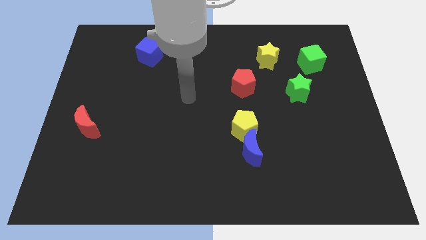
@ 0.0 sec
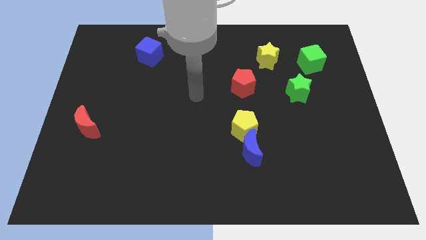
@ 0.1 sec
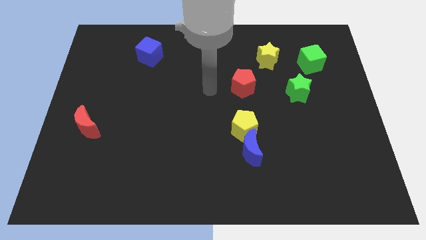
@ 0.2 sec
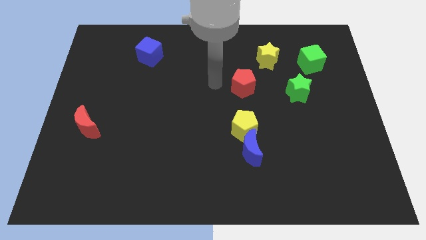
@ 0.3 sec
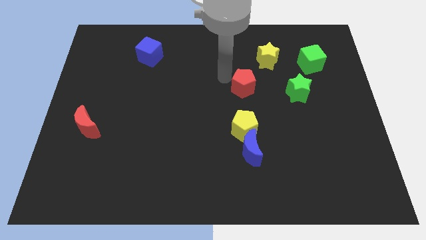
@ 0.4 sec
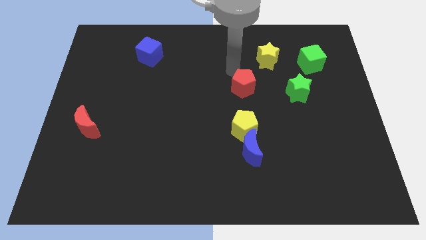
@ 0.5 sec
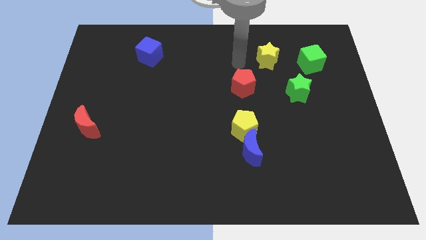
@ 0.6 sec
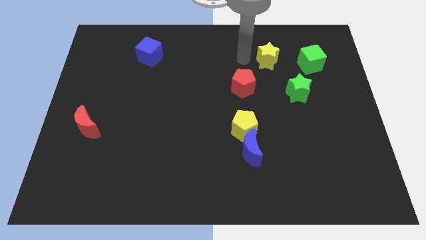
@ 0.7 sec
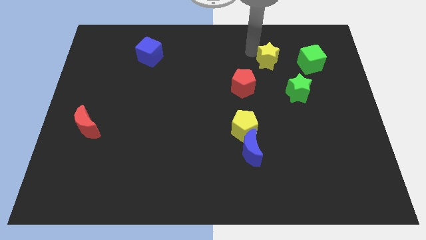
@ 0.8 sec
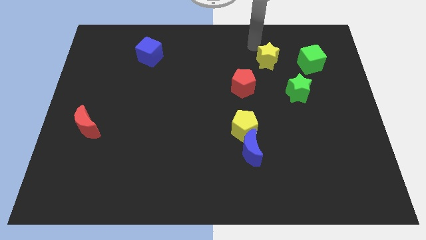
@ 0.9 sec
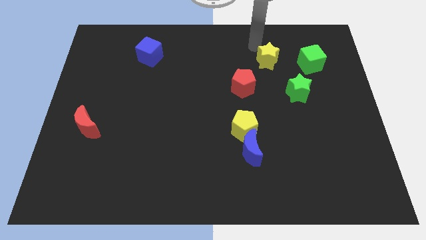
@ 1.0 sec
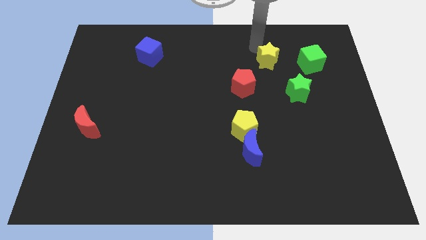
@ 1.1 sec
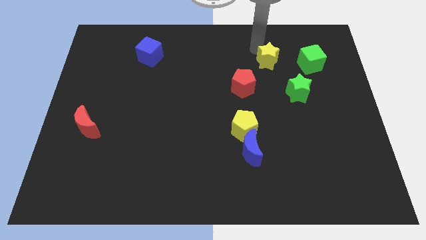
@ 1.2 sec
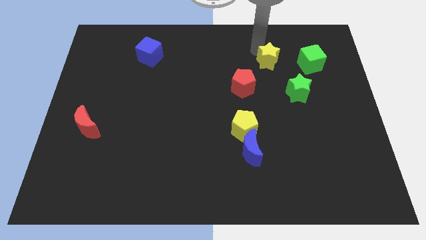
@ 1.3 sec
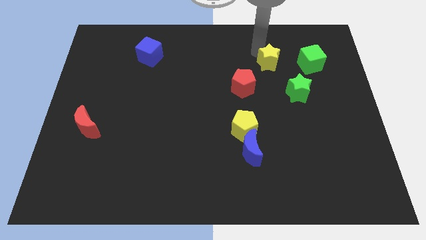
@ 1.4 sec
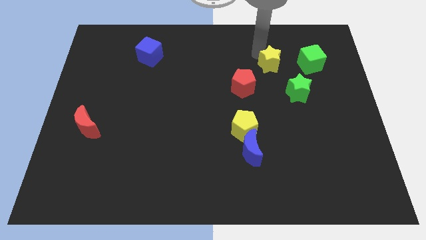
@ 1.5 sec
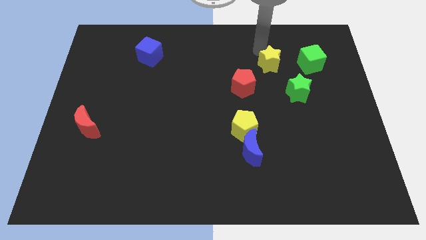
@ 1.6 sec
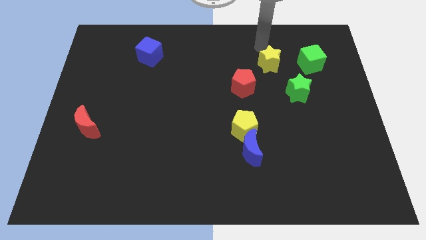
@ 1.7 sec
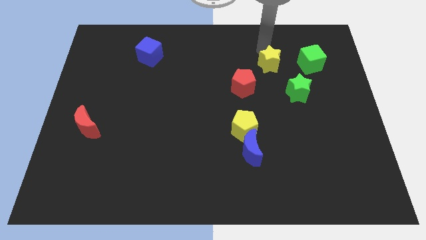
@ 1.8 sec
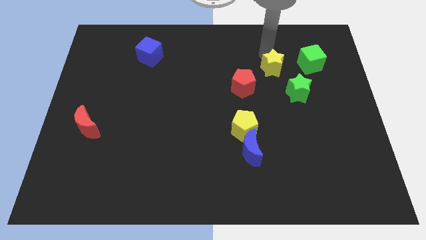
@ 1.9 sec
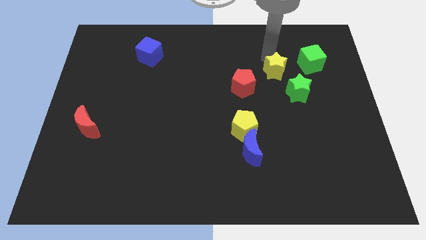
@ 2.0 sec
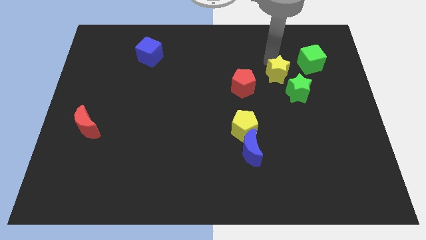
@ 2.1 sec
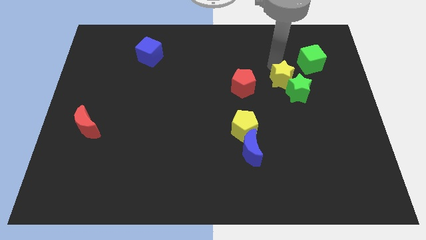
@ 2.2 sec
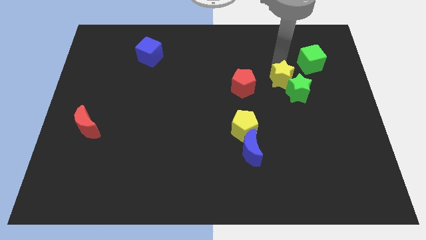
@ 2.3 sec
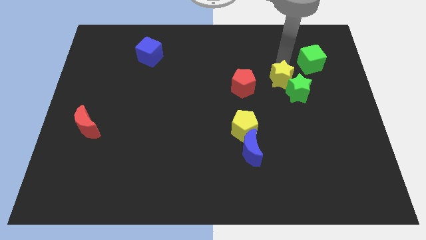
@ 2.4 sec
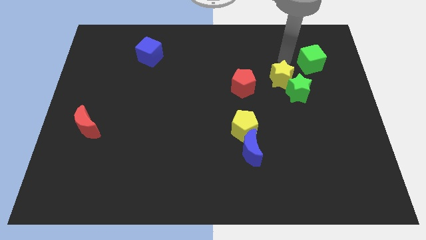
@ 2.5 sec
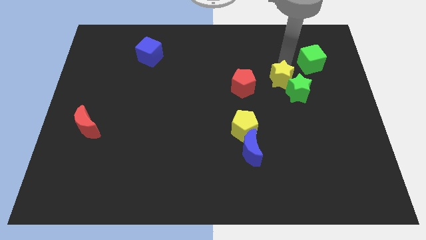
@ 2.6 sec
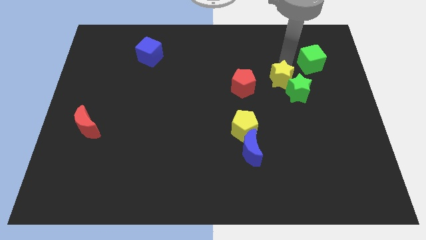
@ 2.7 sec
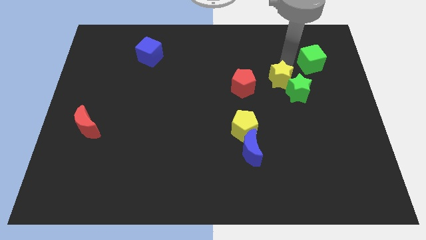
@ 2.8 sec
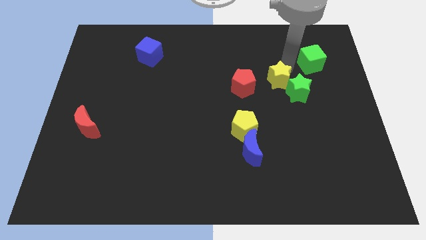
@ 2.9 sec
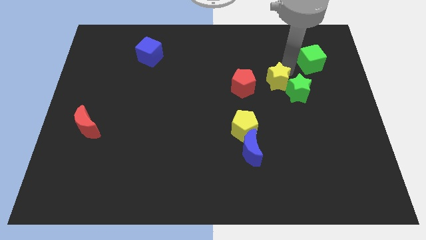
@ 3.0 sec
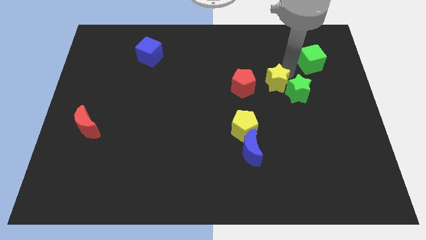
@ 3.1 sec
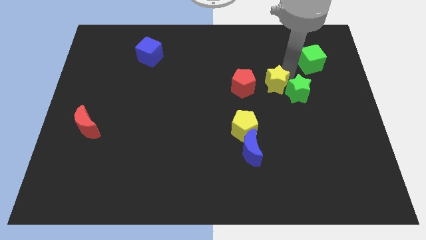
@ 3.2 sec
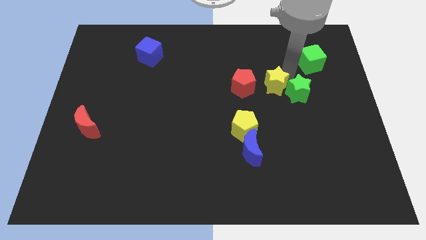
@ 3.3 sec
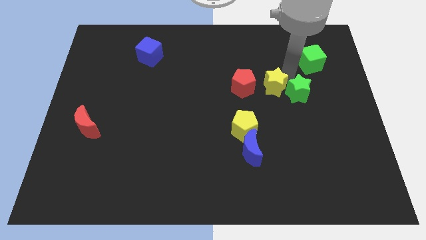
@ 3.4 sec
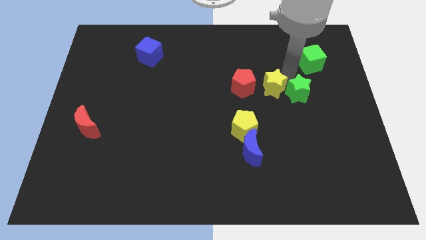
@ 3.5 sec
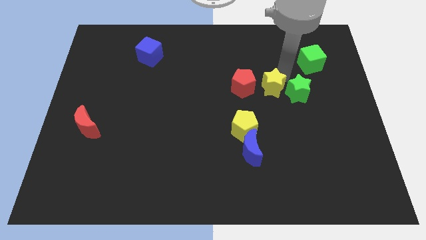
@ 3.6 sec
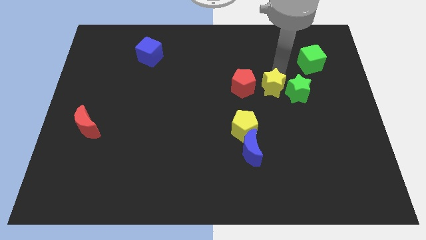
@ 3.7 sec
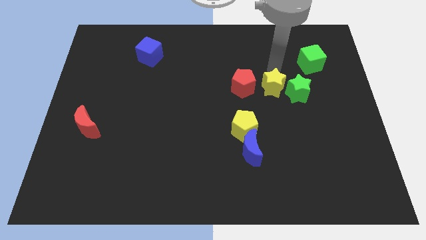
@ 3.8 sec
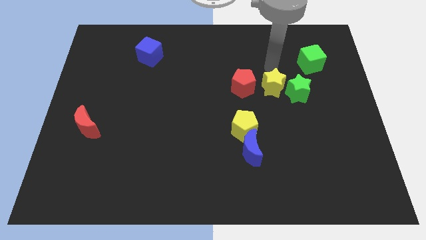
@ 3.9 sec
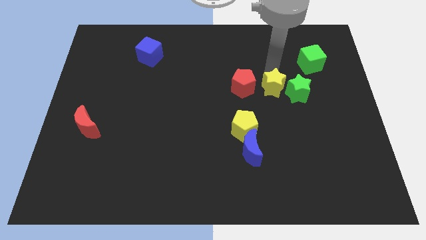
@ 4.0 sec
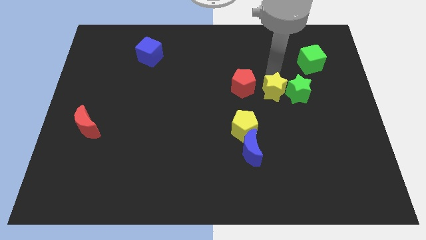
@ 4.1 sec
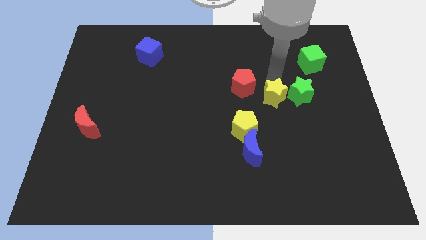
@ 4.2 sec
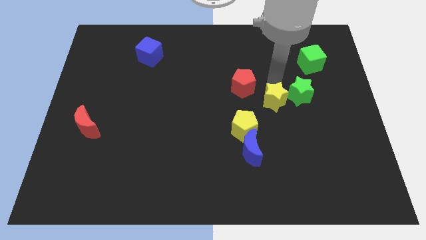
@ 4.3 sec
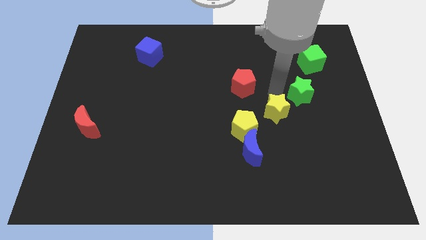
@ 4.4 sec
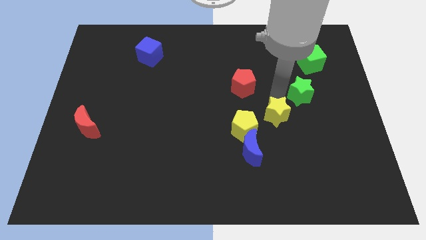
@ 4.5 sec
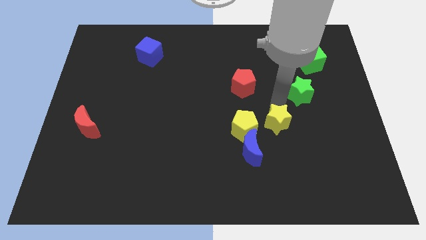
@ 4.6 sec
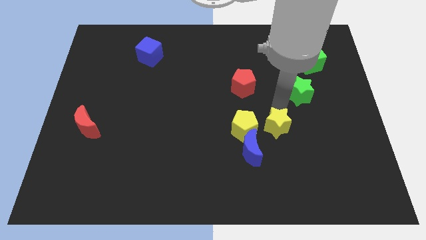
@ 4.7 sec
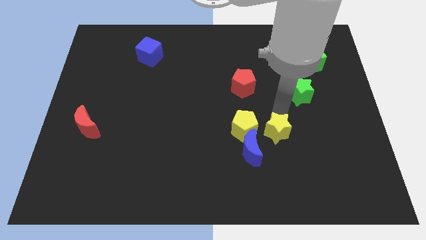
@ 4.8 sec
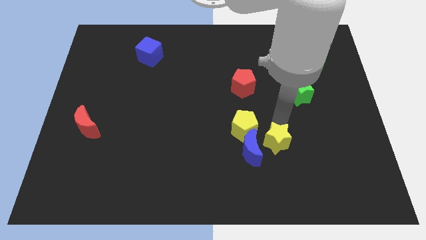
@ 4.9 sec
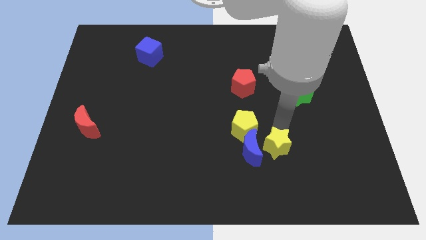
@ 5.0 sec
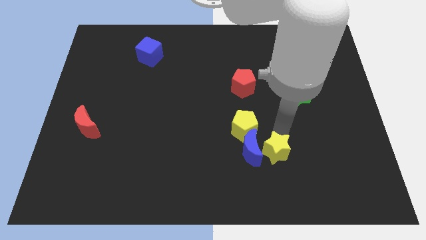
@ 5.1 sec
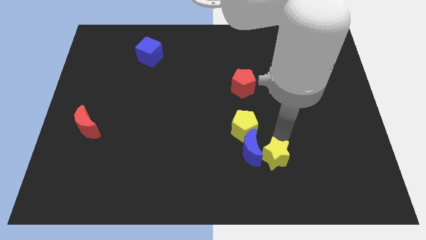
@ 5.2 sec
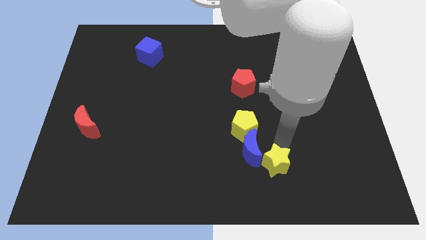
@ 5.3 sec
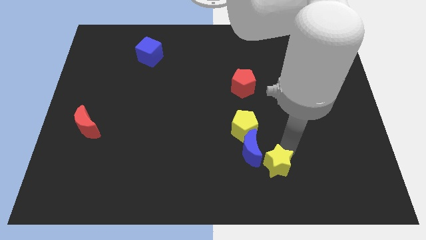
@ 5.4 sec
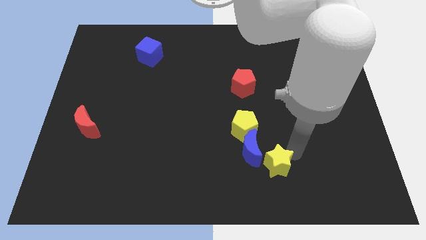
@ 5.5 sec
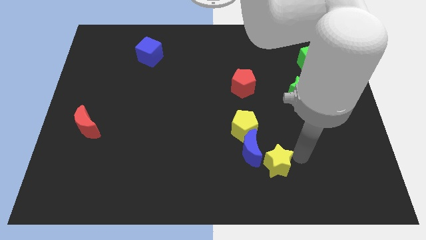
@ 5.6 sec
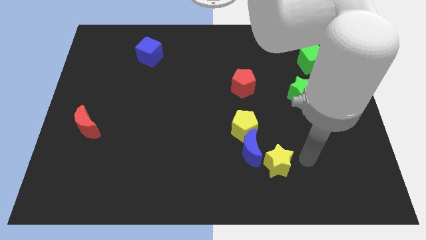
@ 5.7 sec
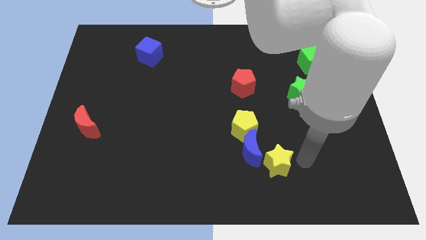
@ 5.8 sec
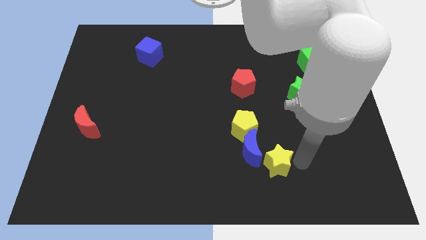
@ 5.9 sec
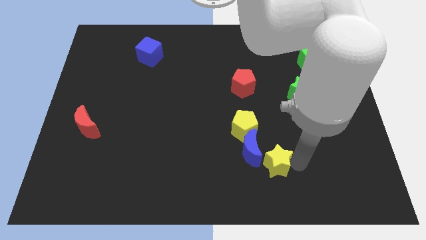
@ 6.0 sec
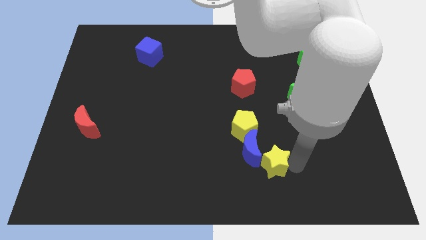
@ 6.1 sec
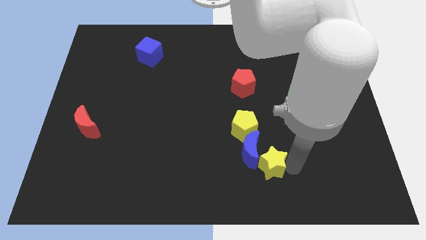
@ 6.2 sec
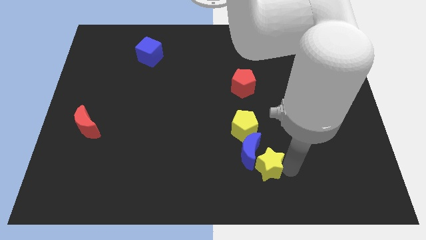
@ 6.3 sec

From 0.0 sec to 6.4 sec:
slide the yellow star to the bottom side of the yellow pentagon

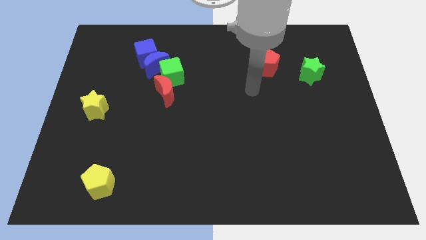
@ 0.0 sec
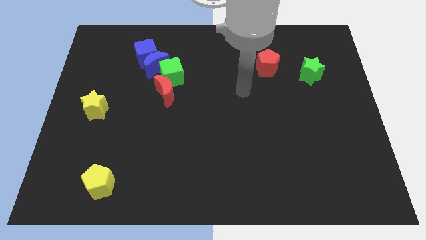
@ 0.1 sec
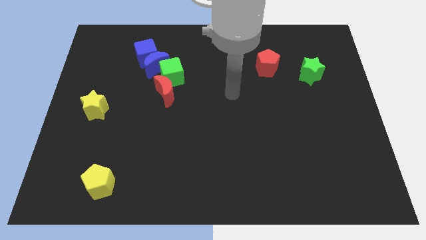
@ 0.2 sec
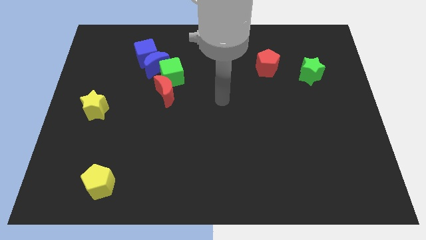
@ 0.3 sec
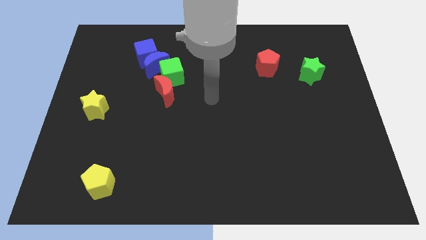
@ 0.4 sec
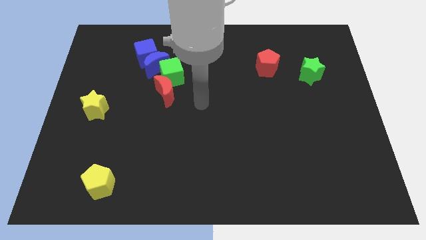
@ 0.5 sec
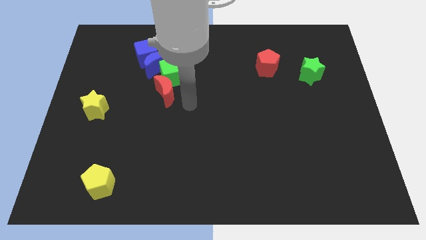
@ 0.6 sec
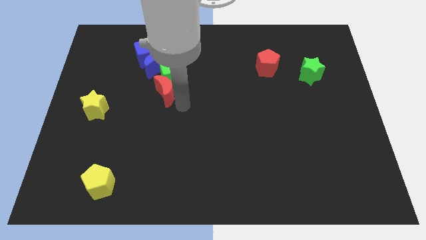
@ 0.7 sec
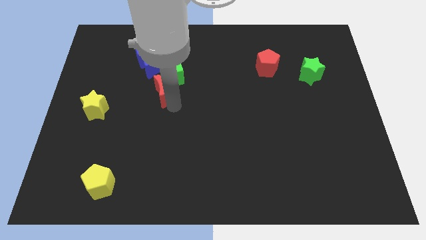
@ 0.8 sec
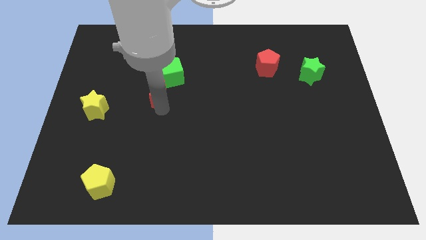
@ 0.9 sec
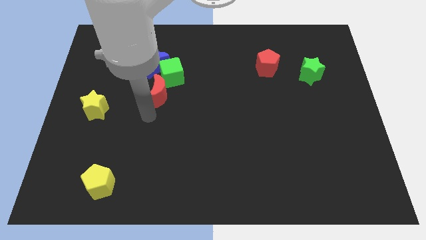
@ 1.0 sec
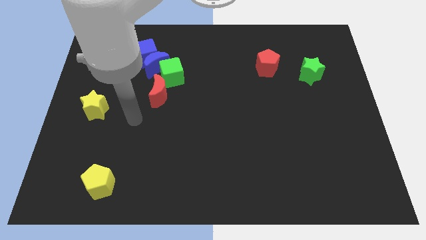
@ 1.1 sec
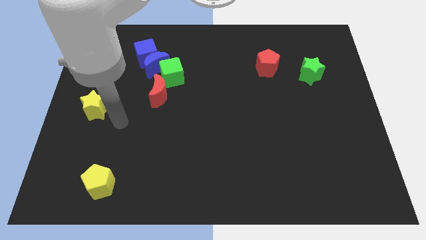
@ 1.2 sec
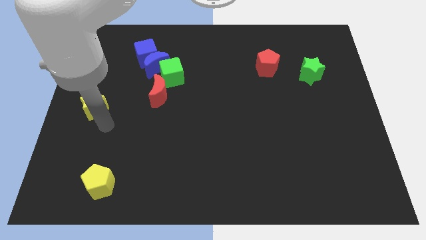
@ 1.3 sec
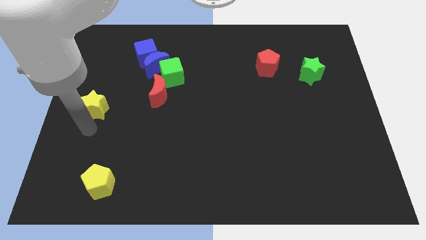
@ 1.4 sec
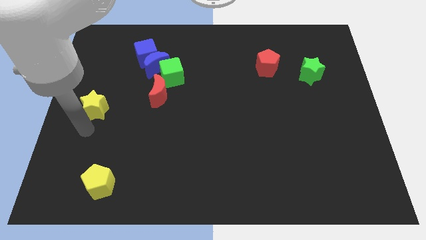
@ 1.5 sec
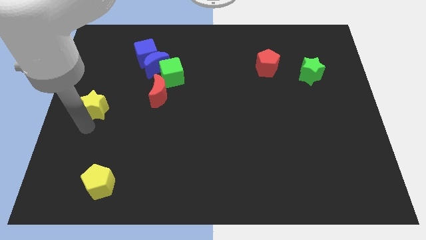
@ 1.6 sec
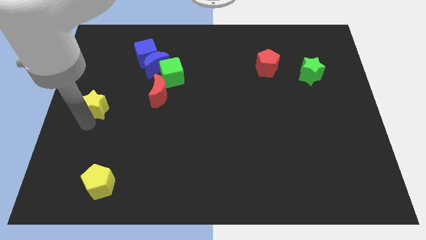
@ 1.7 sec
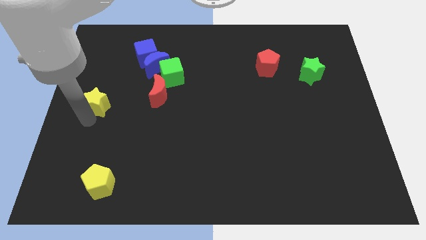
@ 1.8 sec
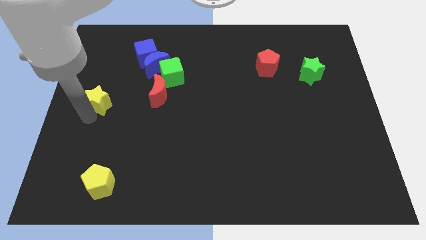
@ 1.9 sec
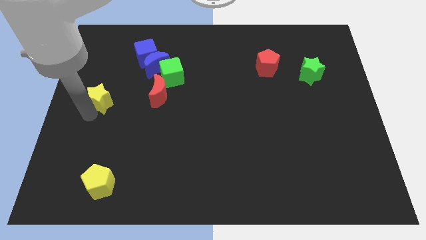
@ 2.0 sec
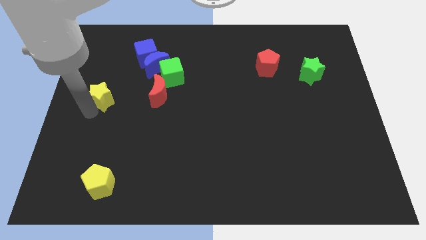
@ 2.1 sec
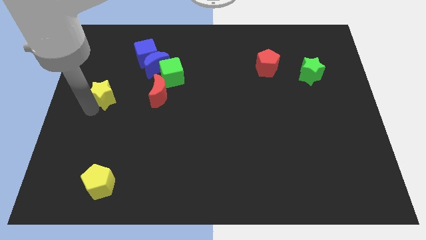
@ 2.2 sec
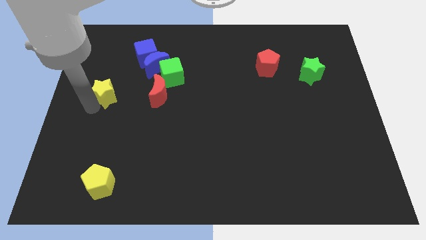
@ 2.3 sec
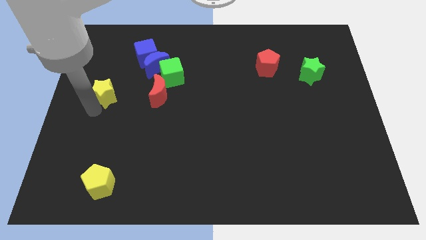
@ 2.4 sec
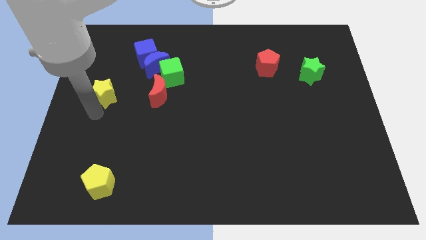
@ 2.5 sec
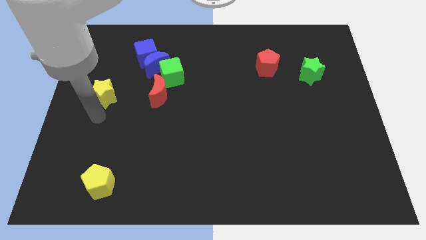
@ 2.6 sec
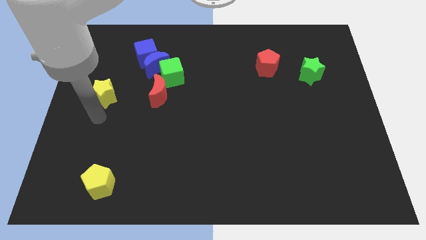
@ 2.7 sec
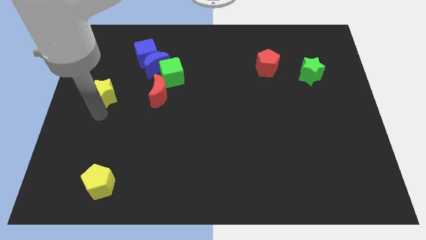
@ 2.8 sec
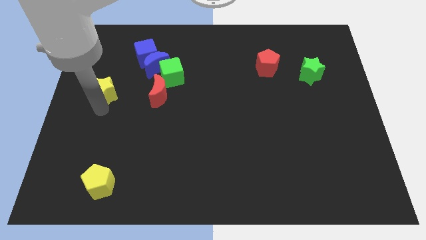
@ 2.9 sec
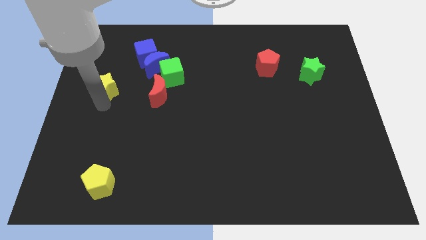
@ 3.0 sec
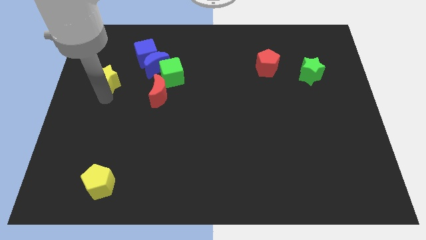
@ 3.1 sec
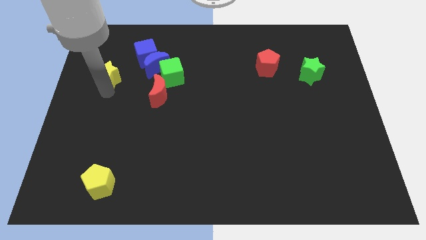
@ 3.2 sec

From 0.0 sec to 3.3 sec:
put the yellow star left of the blue moon
